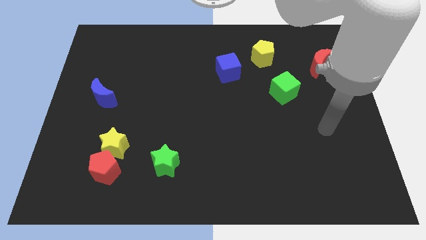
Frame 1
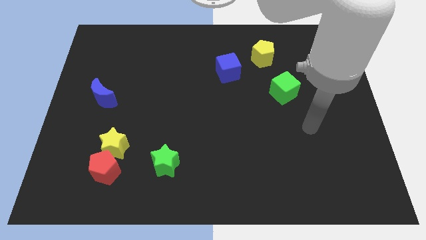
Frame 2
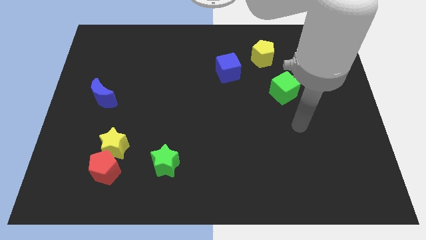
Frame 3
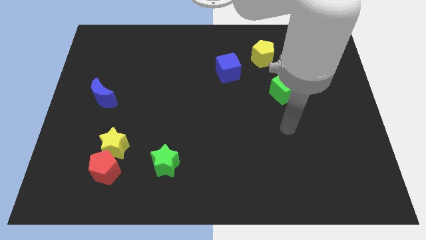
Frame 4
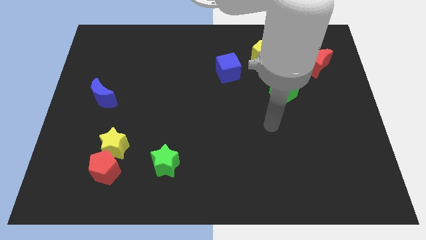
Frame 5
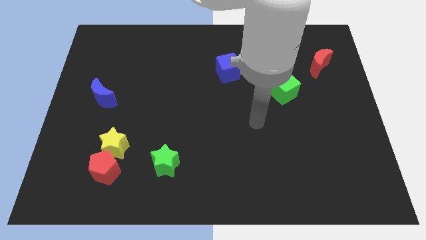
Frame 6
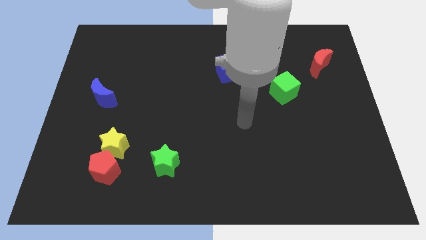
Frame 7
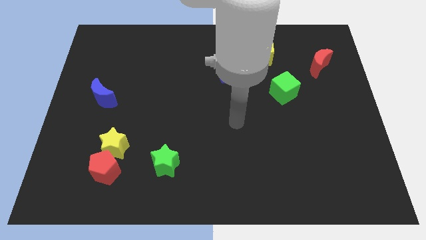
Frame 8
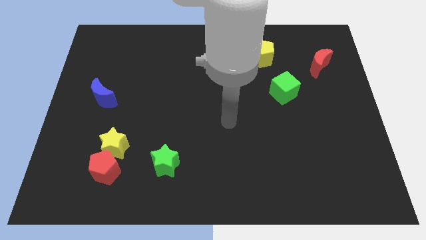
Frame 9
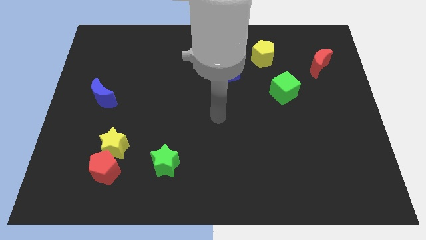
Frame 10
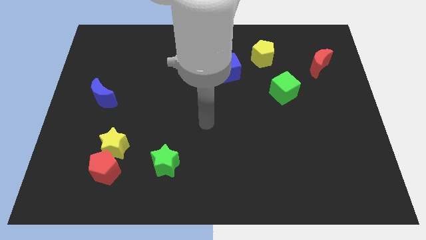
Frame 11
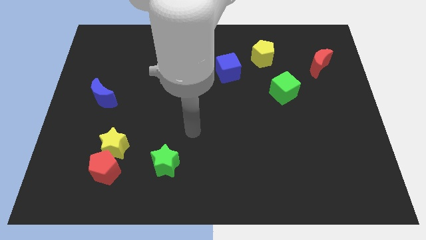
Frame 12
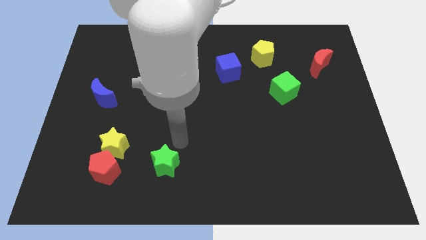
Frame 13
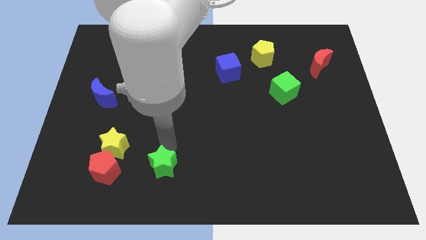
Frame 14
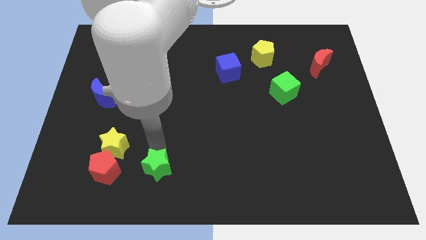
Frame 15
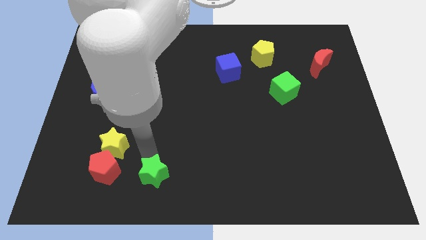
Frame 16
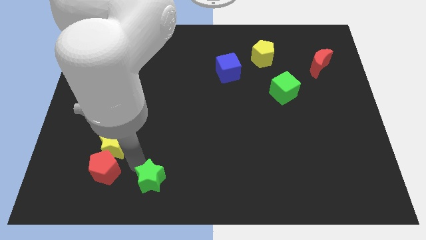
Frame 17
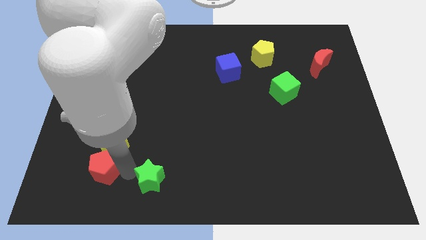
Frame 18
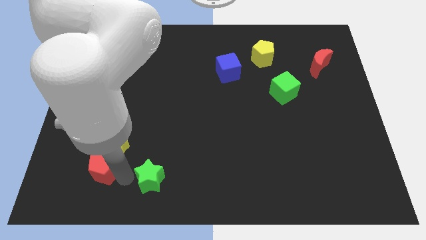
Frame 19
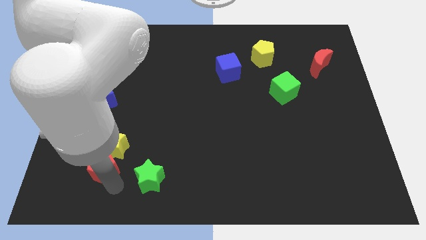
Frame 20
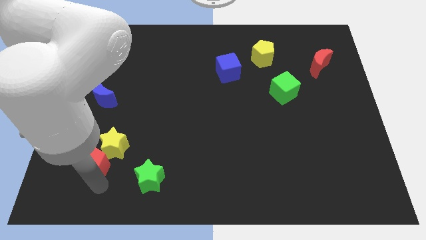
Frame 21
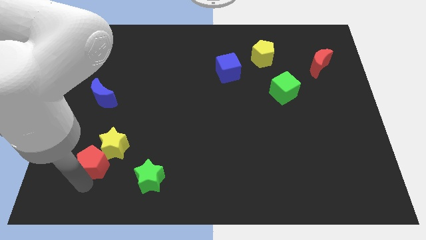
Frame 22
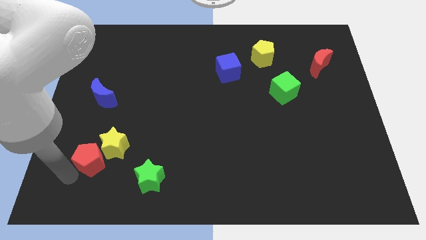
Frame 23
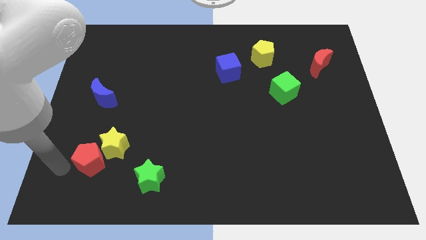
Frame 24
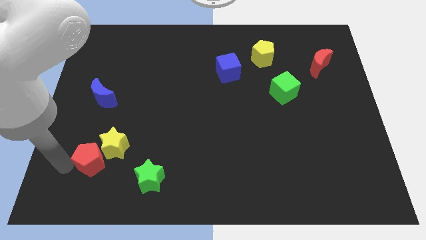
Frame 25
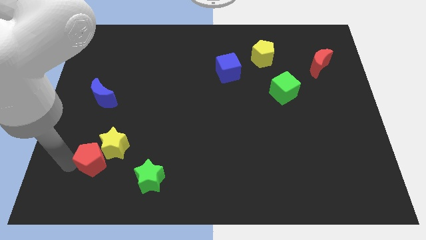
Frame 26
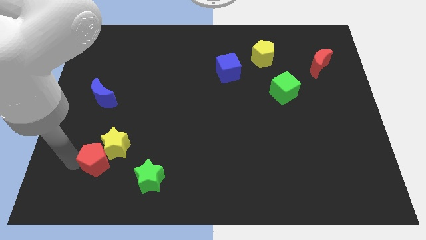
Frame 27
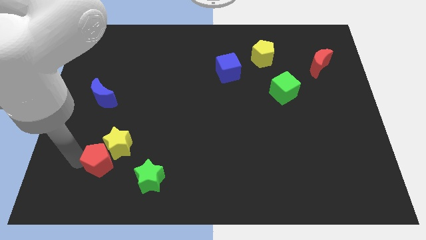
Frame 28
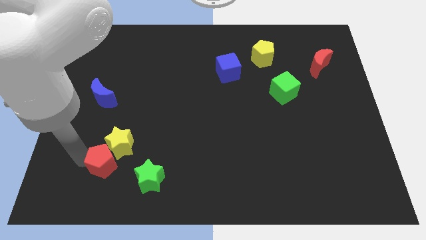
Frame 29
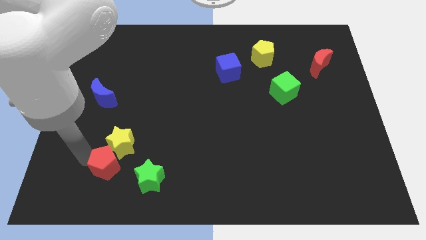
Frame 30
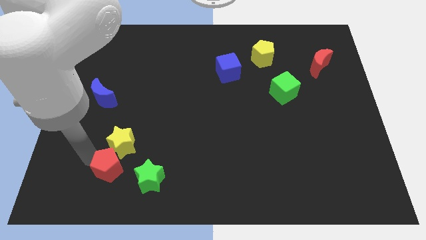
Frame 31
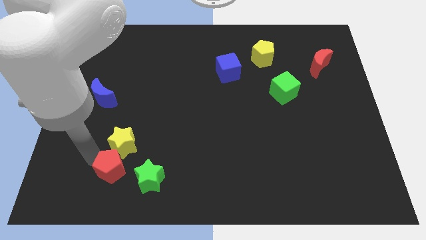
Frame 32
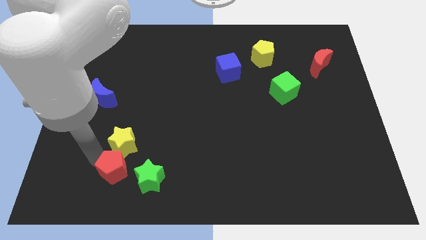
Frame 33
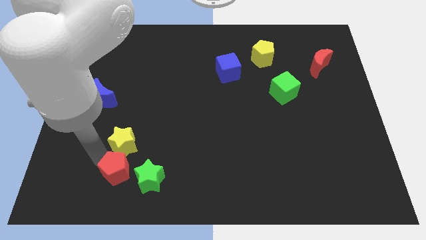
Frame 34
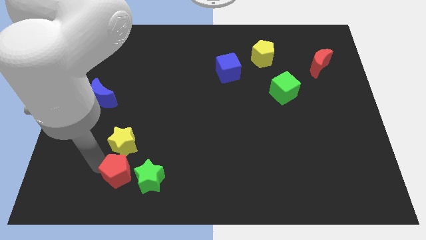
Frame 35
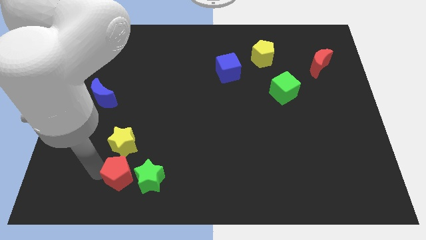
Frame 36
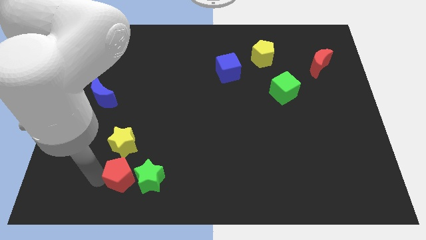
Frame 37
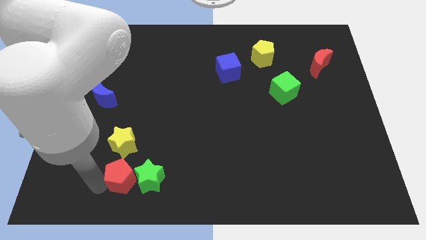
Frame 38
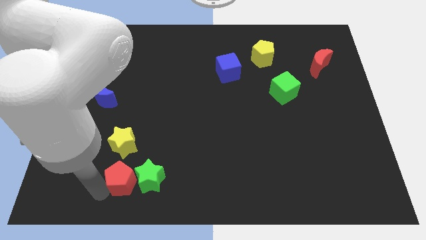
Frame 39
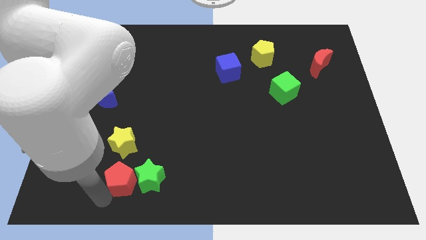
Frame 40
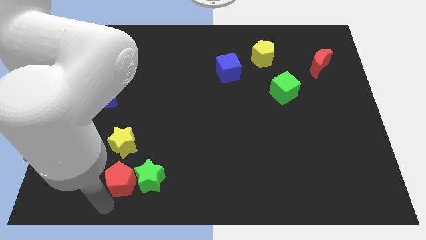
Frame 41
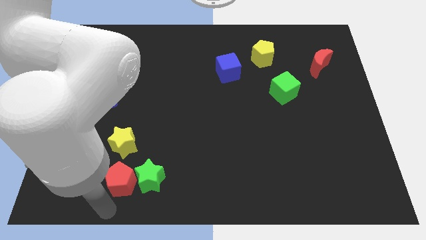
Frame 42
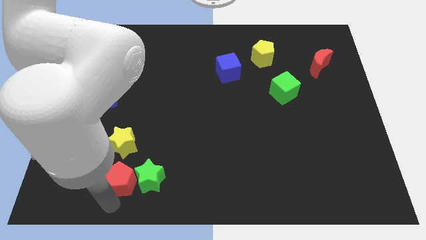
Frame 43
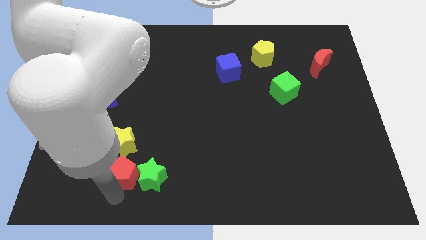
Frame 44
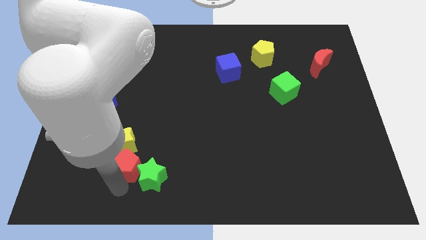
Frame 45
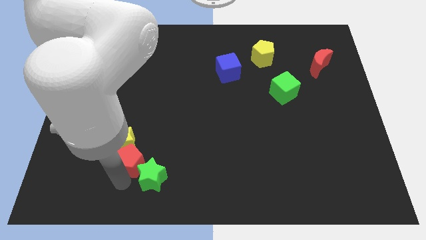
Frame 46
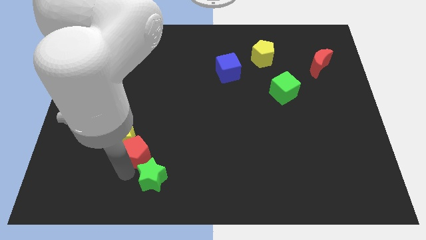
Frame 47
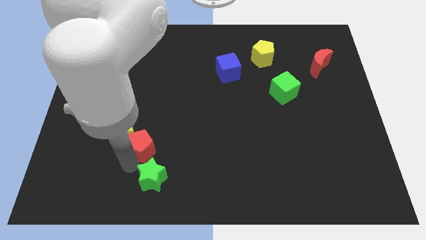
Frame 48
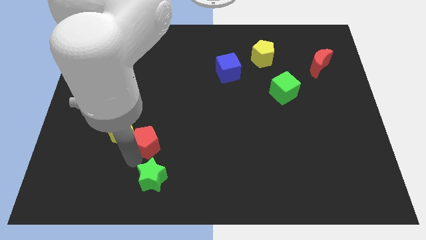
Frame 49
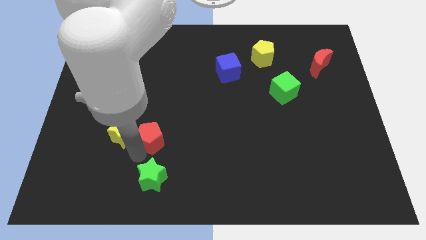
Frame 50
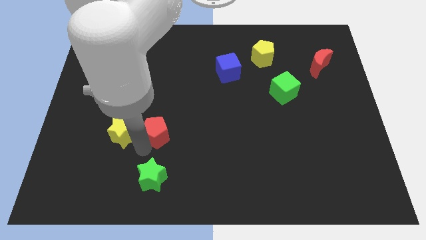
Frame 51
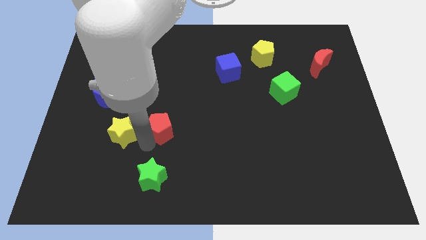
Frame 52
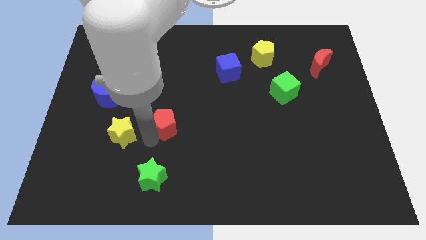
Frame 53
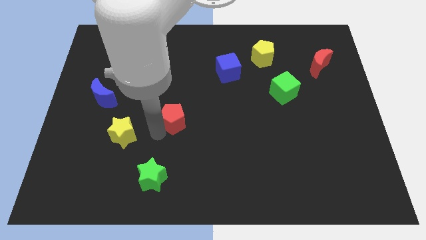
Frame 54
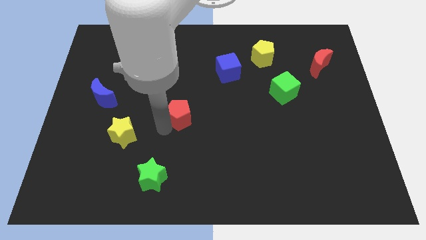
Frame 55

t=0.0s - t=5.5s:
slide the red pentagon diagonally upwards and to the right

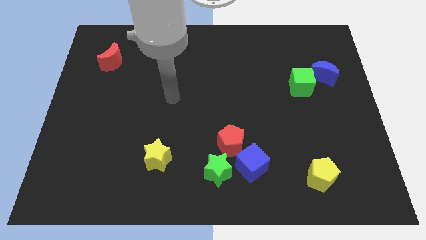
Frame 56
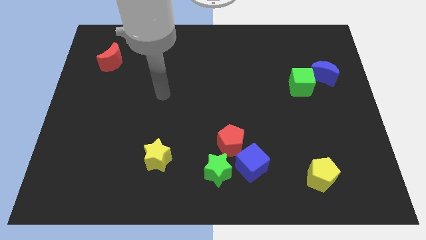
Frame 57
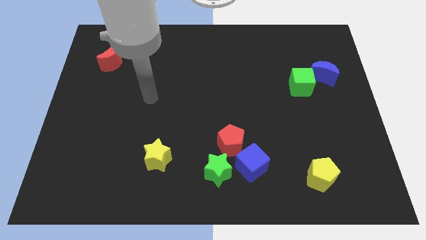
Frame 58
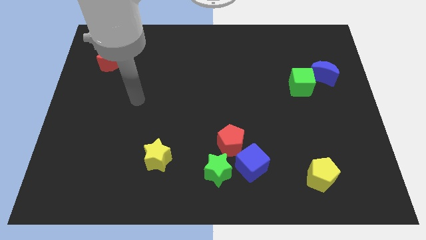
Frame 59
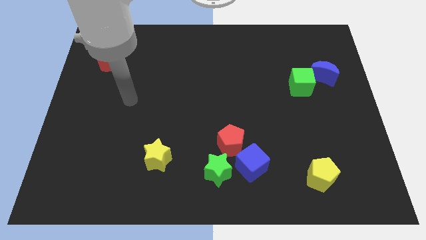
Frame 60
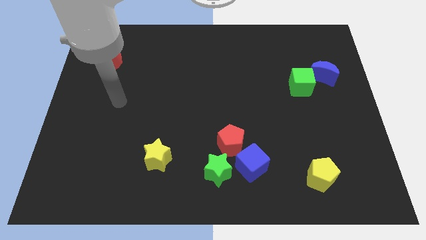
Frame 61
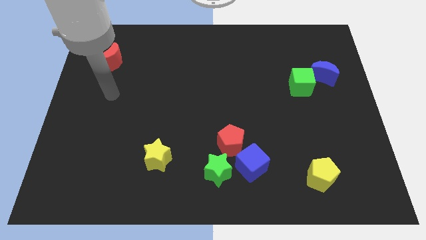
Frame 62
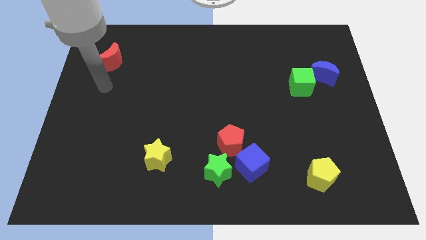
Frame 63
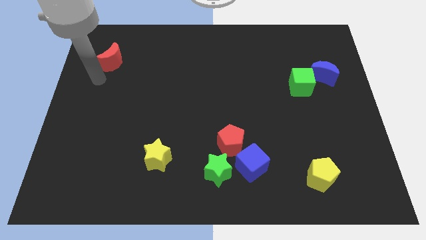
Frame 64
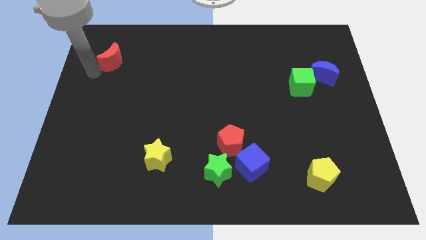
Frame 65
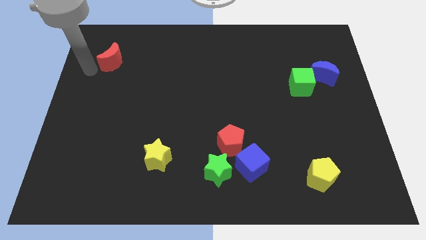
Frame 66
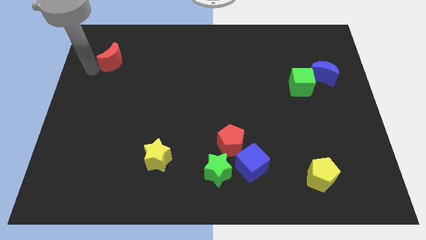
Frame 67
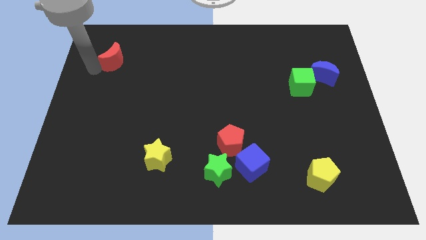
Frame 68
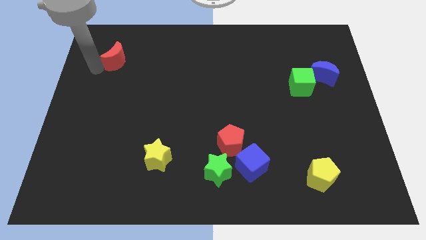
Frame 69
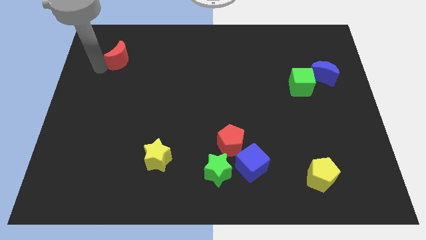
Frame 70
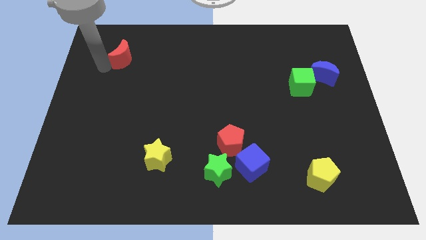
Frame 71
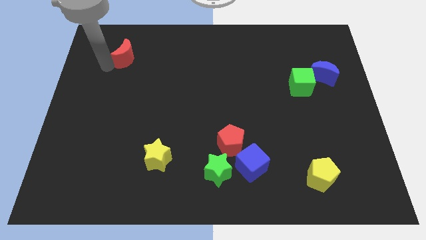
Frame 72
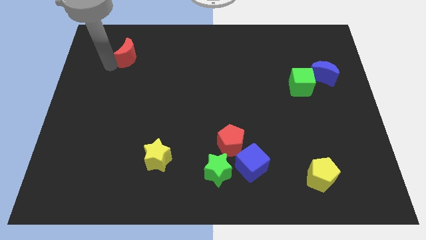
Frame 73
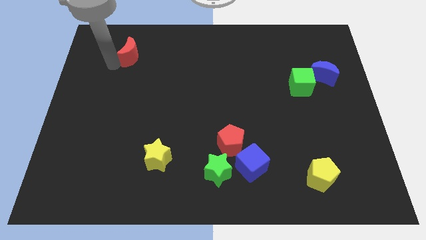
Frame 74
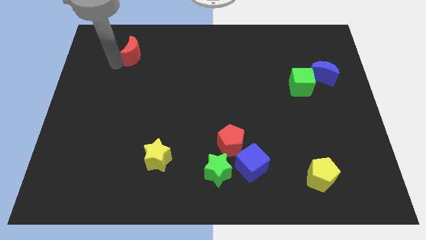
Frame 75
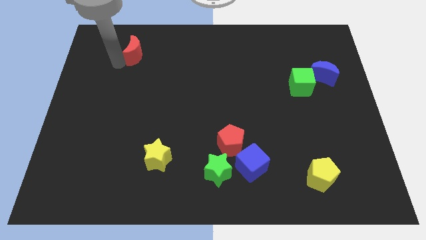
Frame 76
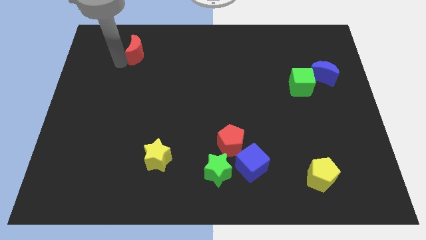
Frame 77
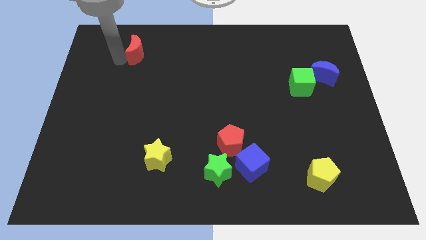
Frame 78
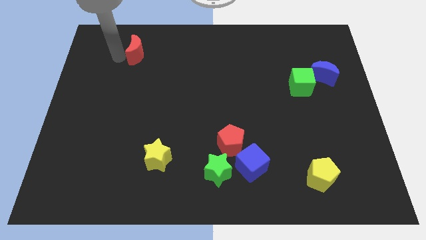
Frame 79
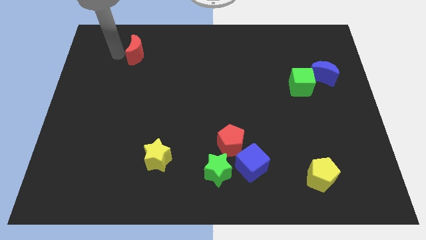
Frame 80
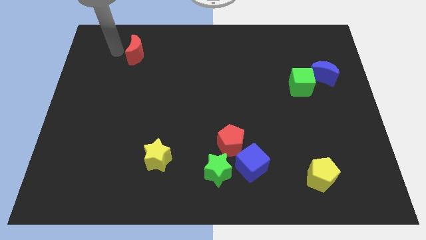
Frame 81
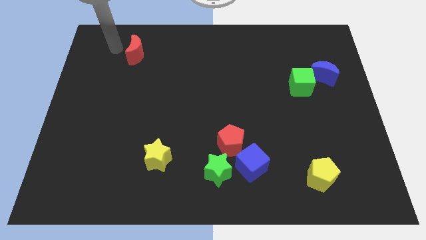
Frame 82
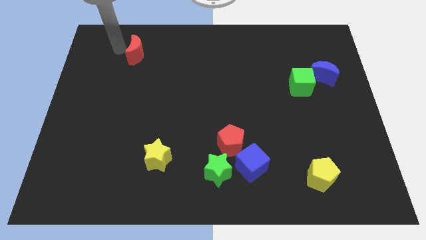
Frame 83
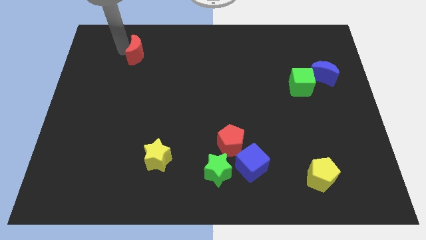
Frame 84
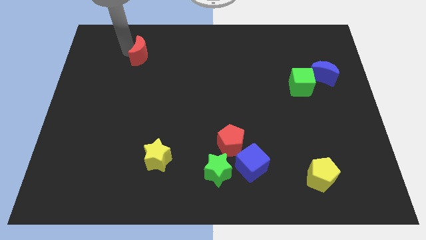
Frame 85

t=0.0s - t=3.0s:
slightly push the red moon to the right
